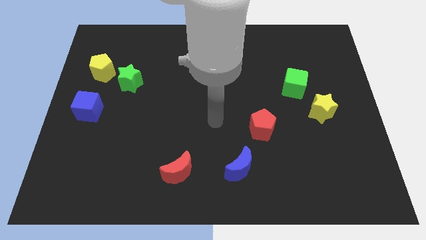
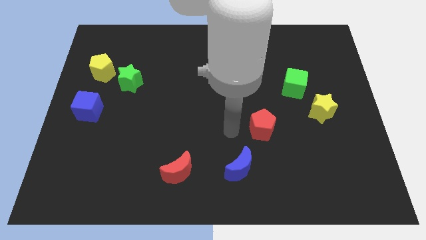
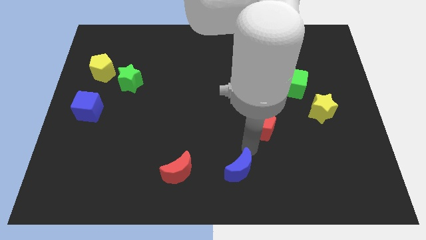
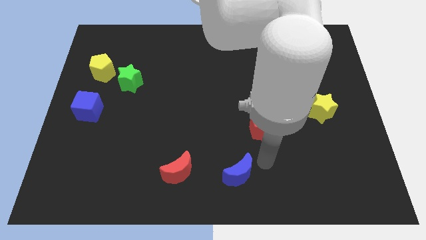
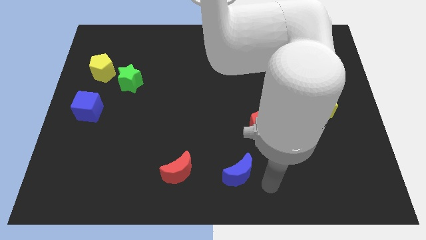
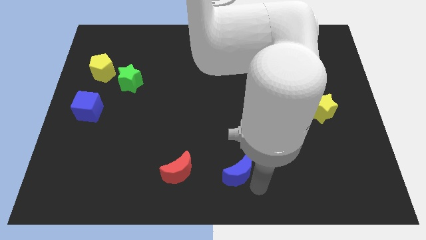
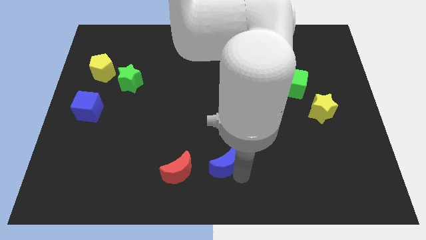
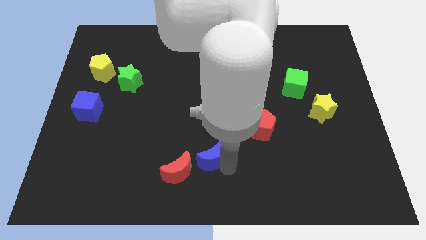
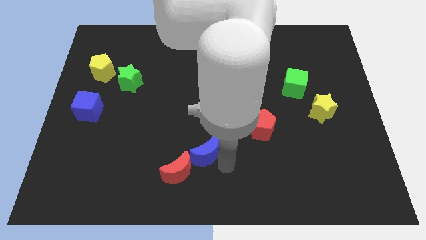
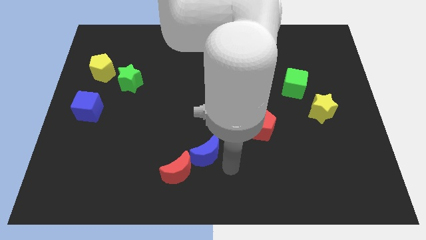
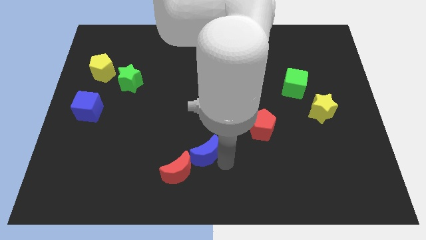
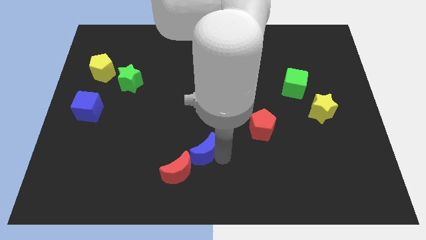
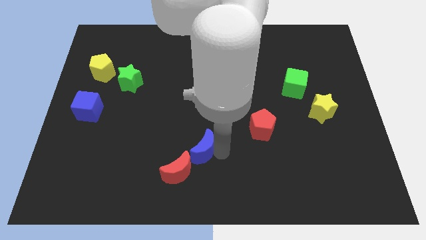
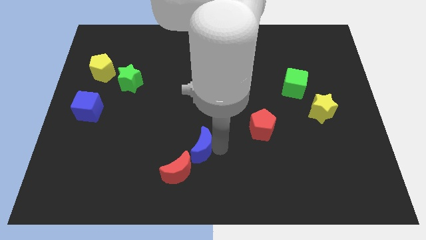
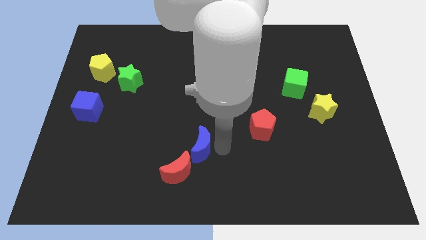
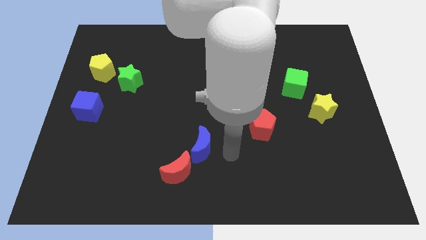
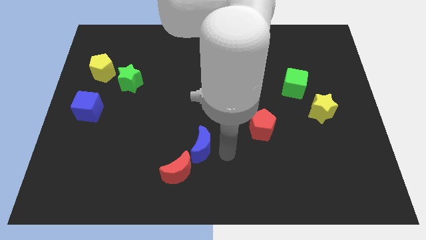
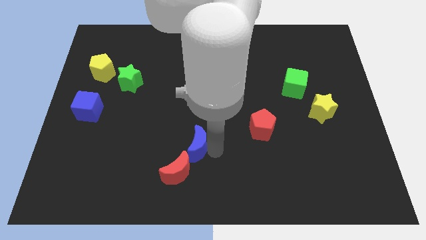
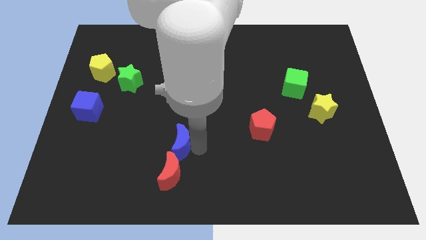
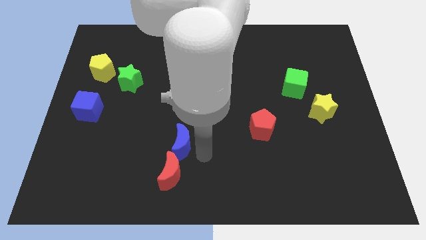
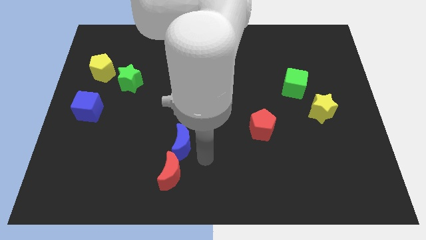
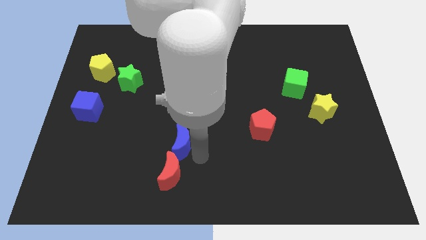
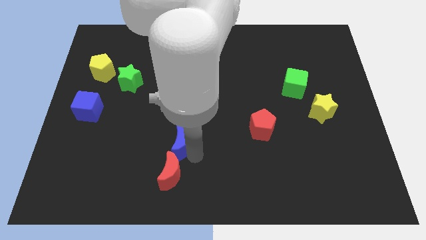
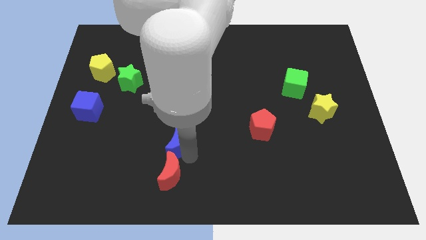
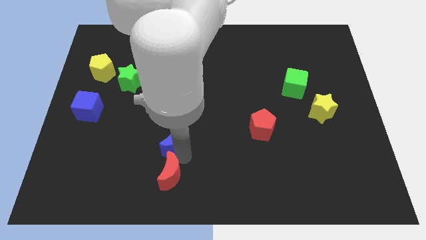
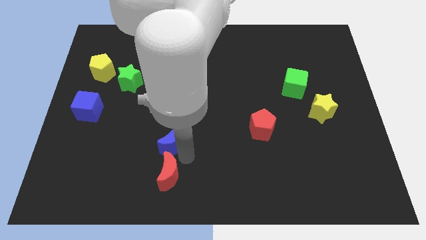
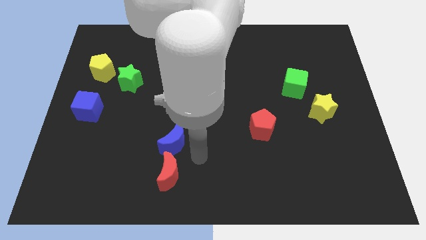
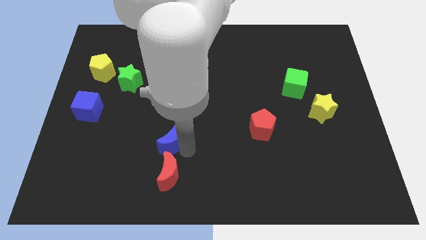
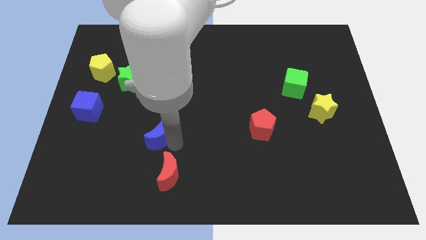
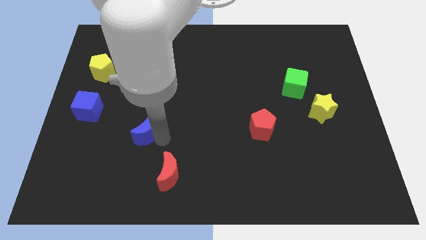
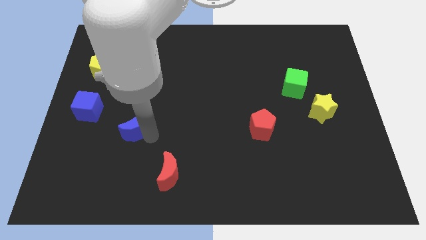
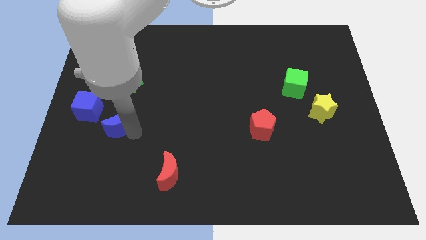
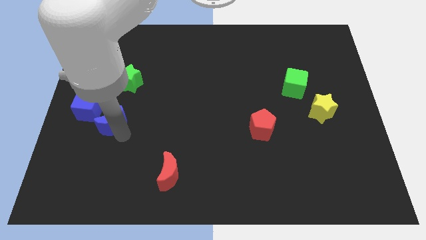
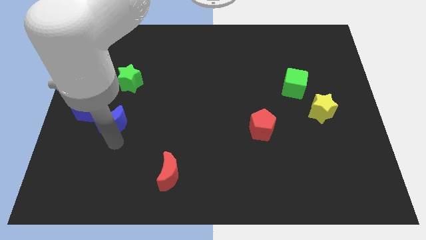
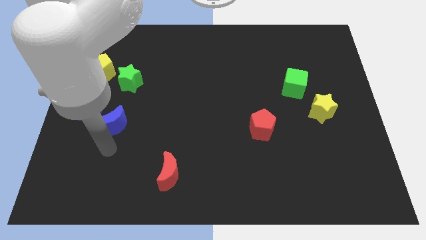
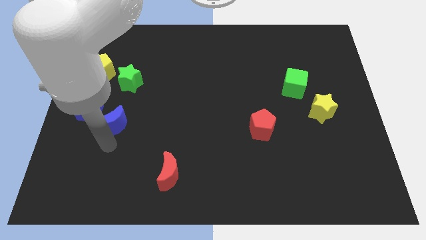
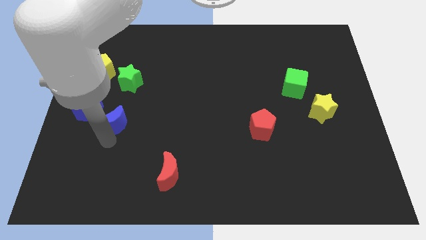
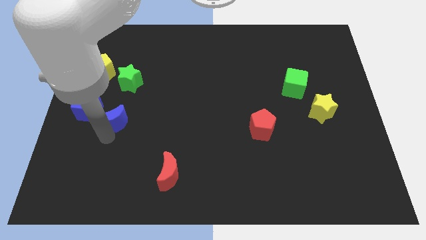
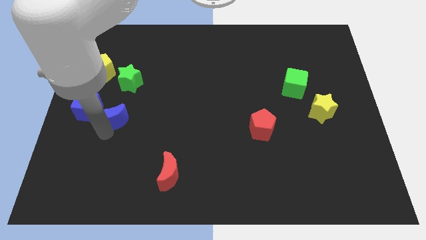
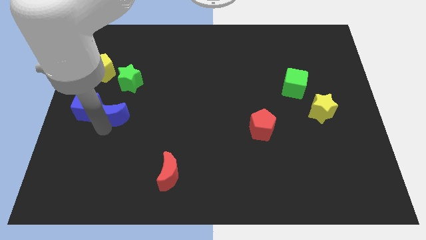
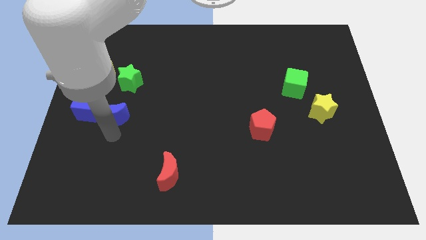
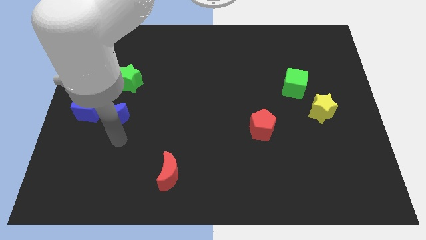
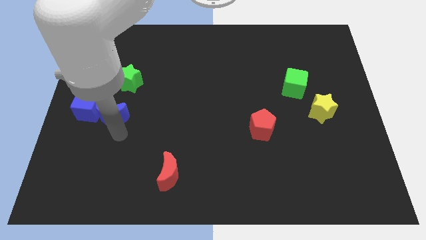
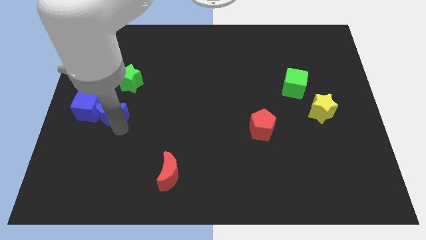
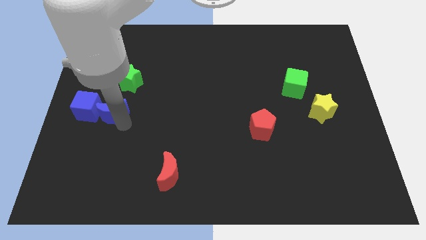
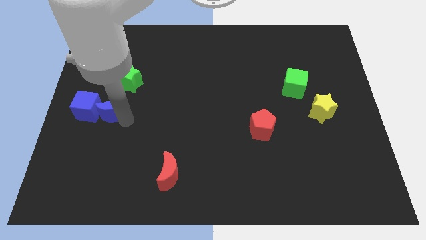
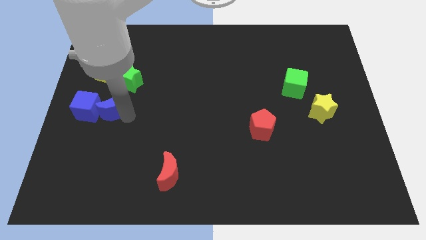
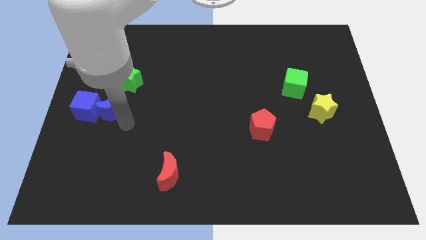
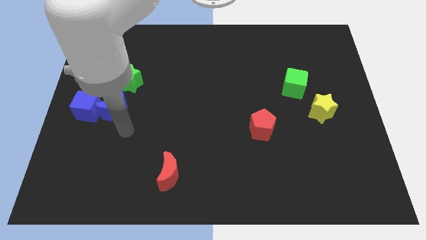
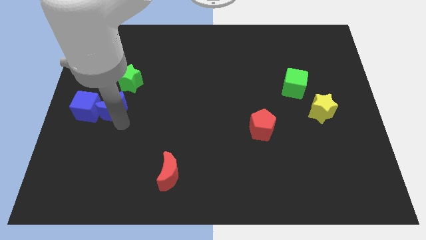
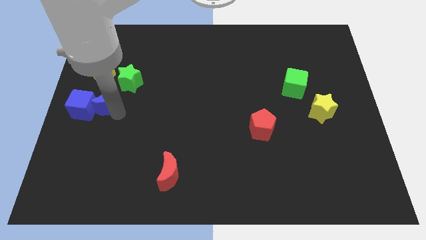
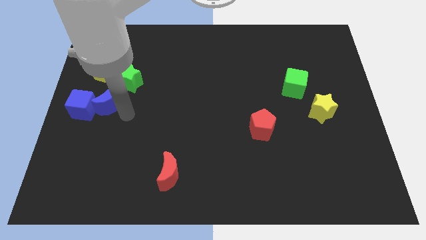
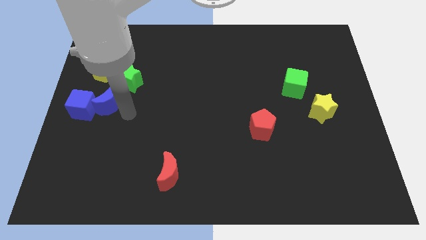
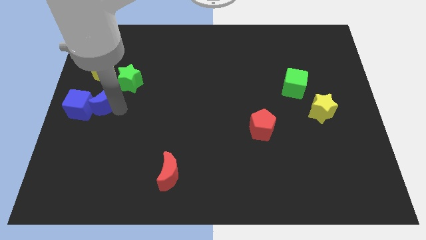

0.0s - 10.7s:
move the blue moon to the left side

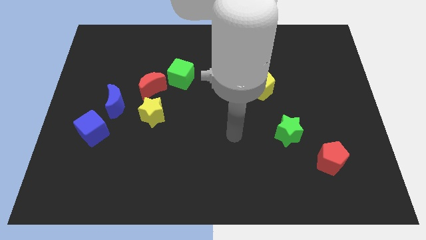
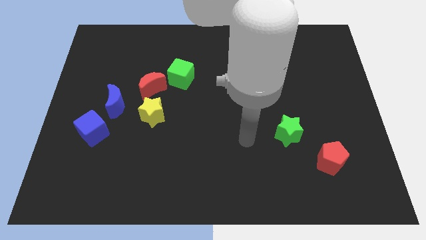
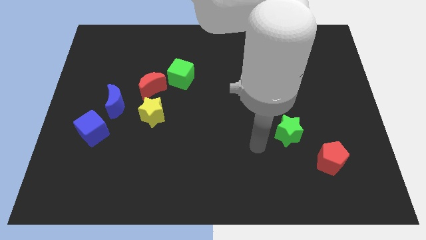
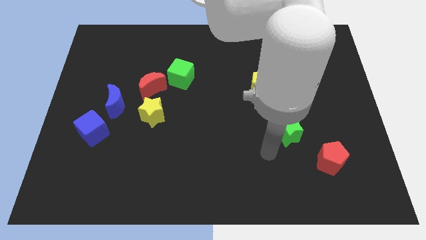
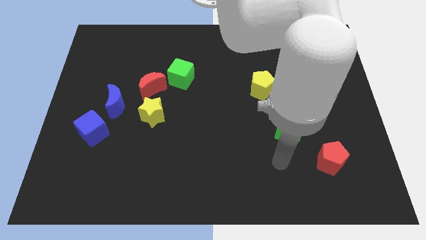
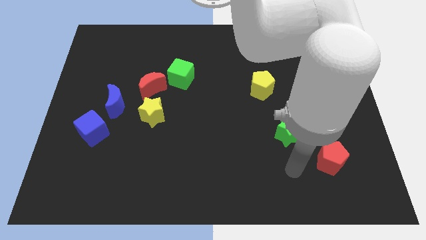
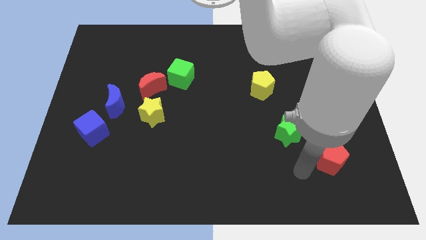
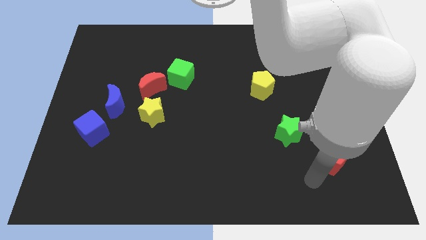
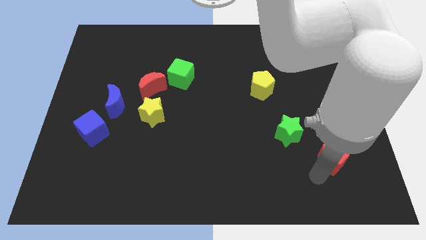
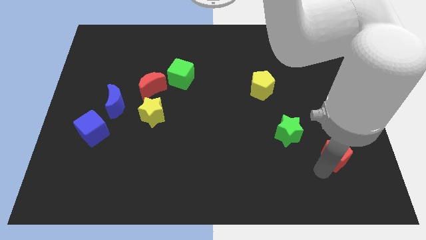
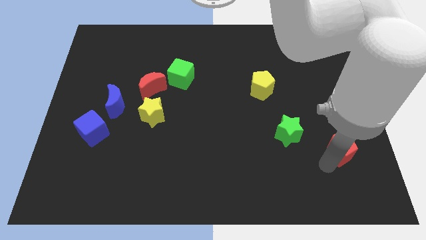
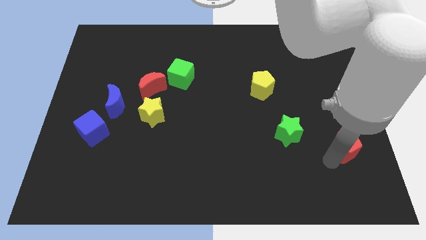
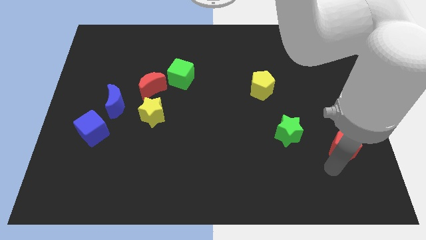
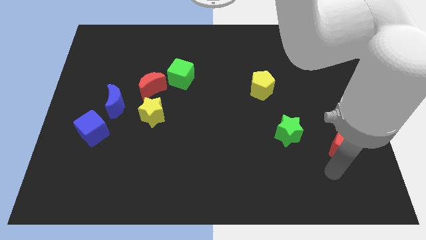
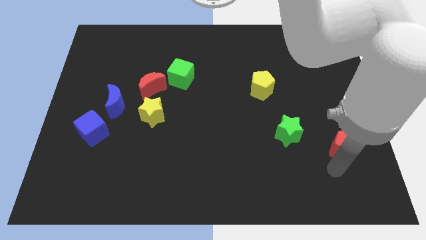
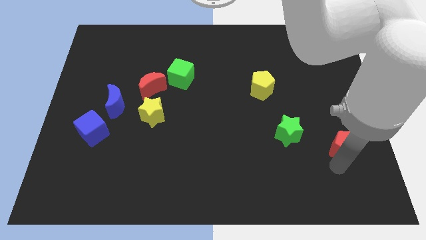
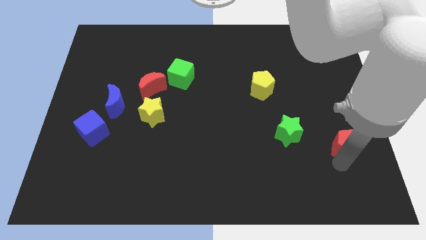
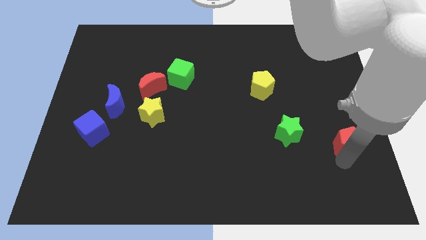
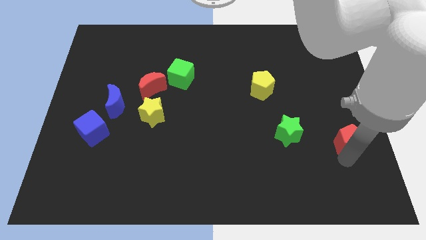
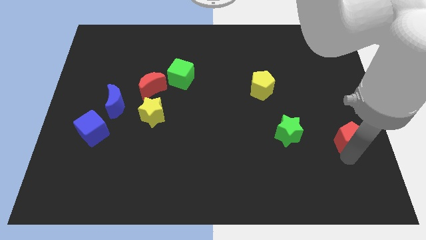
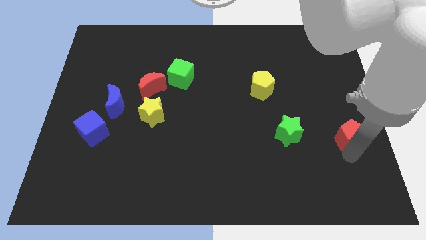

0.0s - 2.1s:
move the red pentagon to the right side

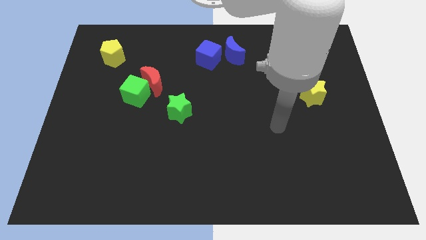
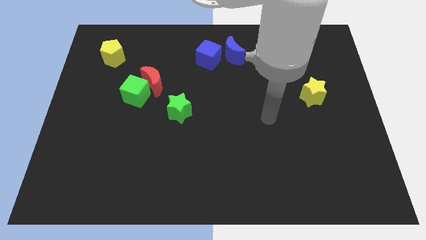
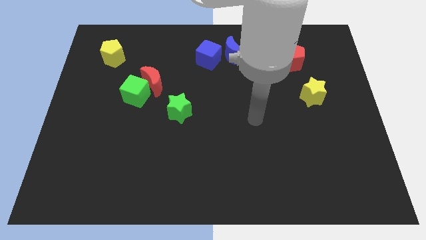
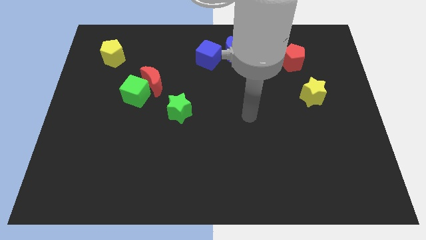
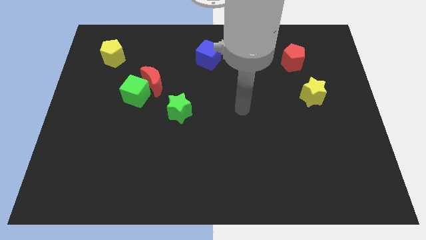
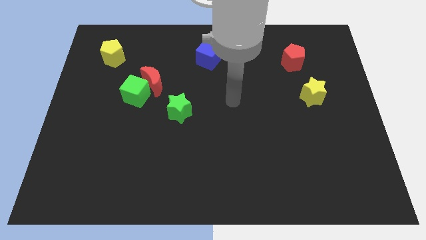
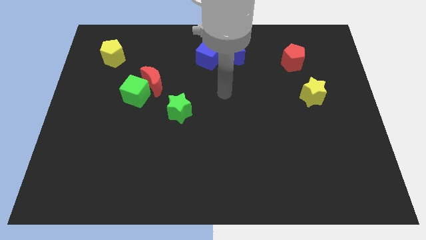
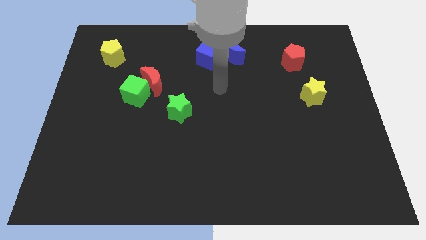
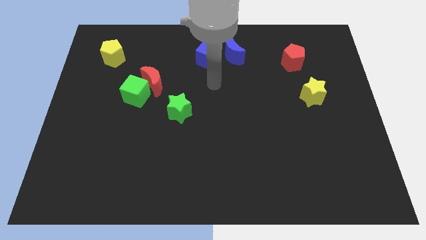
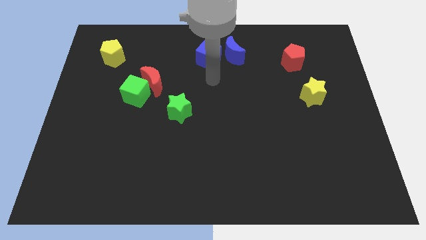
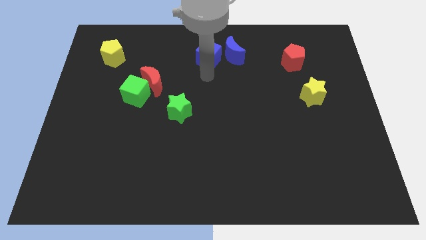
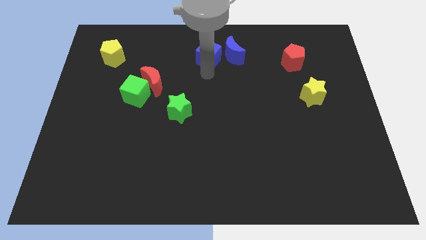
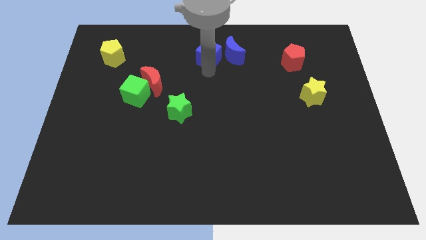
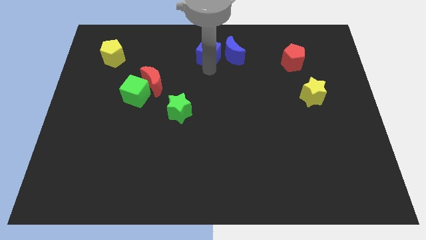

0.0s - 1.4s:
put the blue cube to the towards your base
